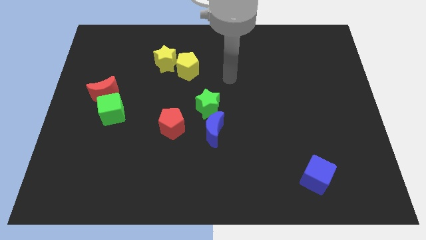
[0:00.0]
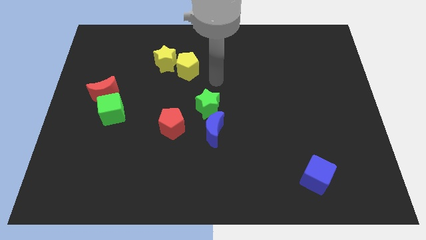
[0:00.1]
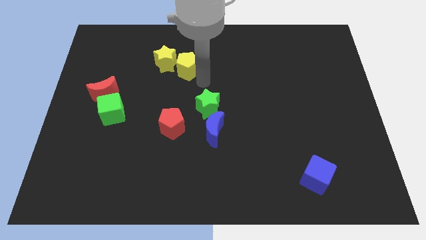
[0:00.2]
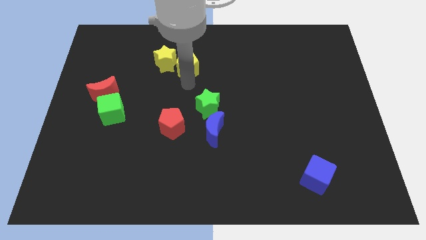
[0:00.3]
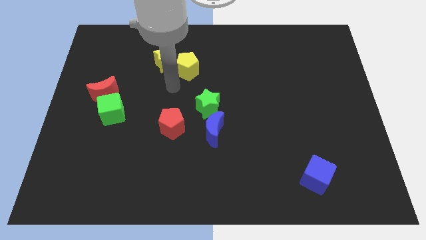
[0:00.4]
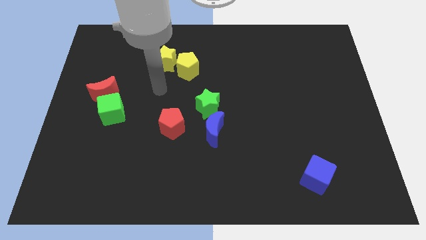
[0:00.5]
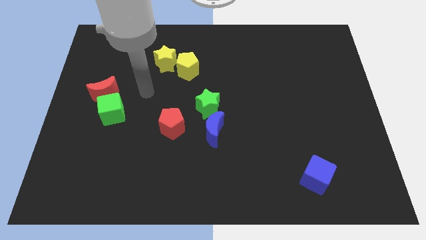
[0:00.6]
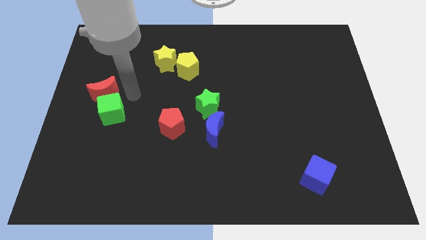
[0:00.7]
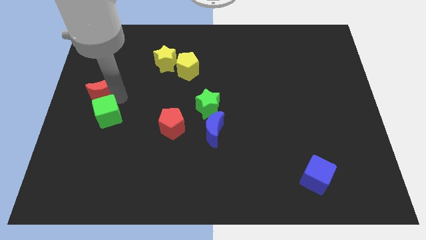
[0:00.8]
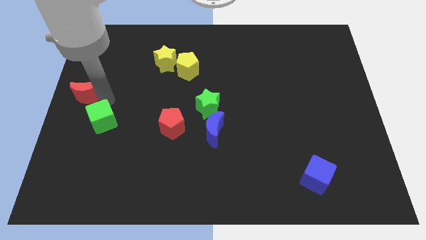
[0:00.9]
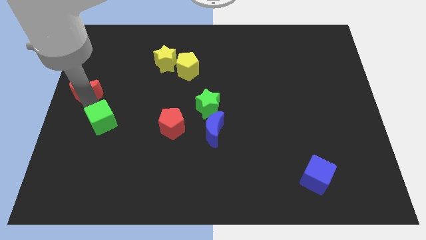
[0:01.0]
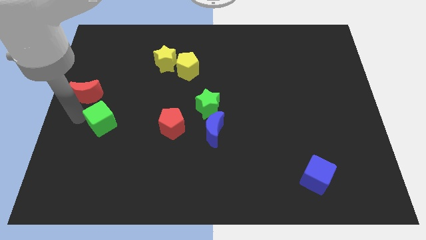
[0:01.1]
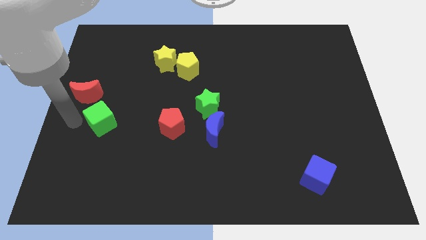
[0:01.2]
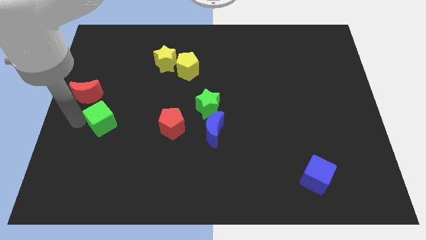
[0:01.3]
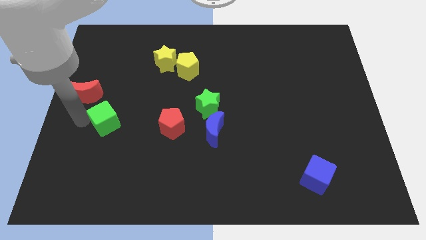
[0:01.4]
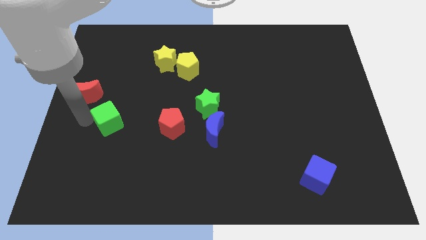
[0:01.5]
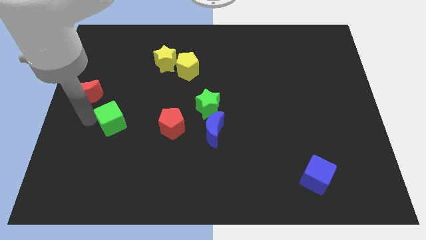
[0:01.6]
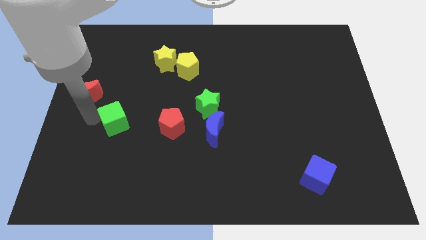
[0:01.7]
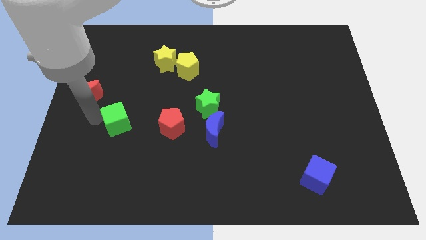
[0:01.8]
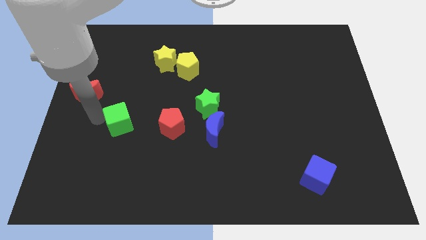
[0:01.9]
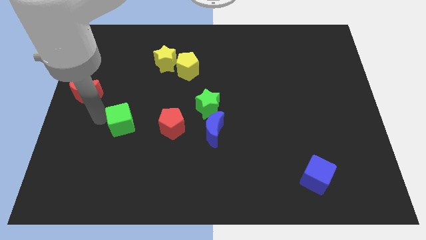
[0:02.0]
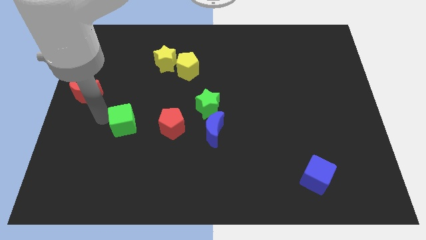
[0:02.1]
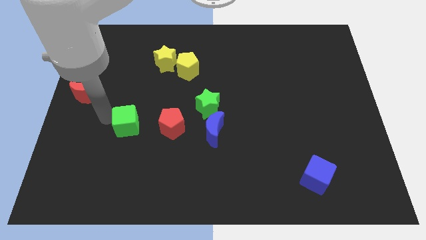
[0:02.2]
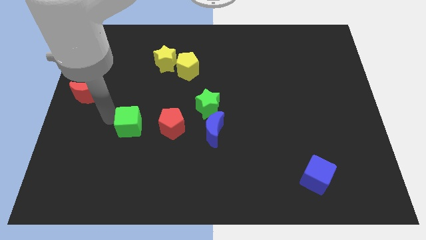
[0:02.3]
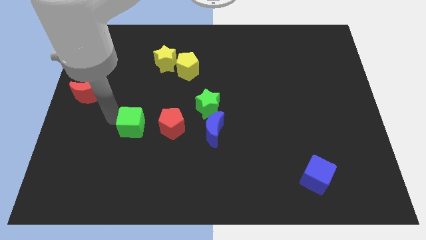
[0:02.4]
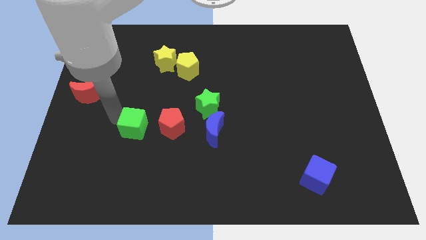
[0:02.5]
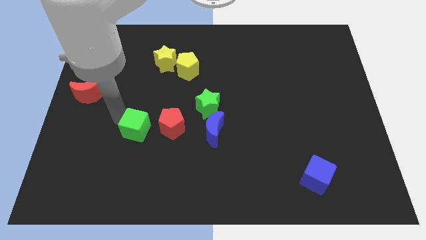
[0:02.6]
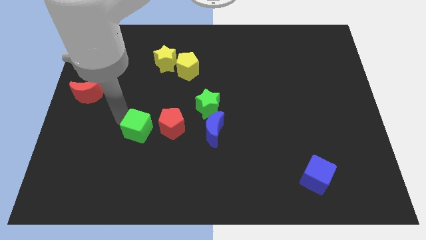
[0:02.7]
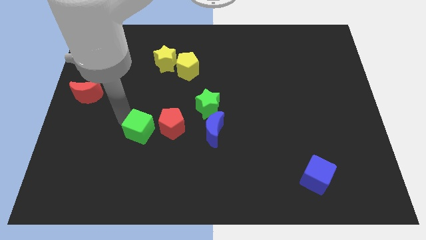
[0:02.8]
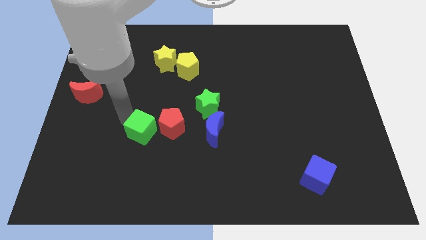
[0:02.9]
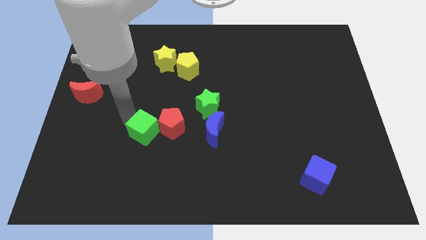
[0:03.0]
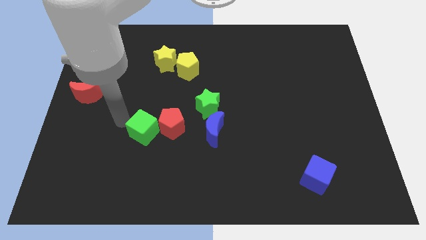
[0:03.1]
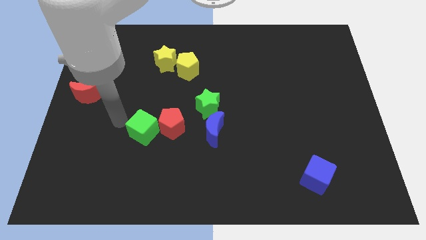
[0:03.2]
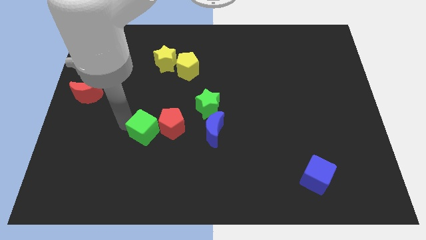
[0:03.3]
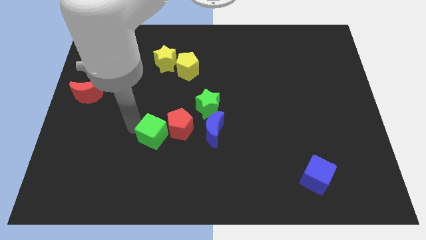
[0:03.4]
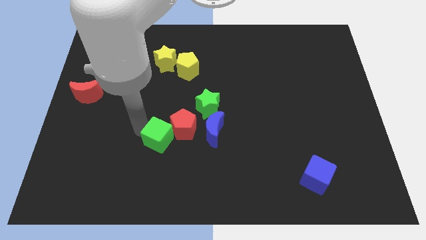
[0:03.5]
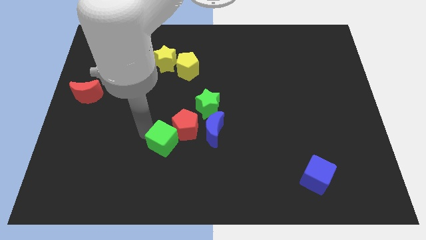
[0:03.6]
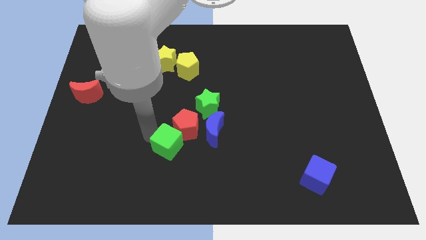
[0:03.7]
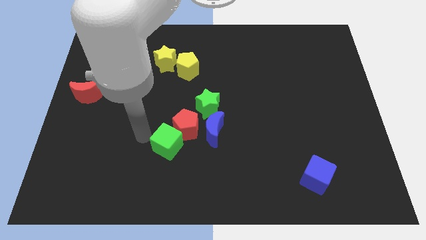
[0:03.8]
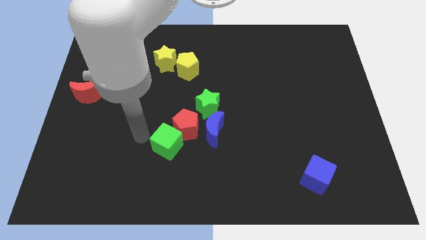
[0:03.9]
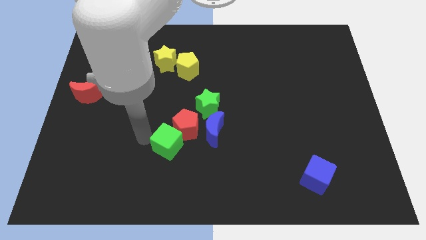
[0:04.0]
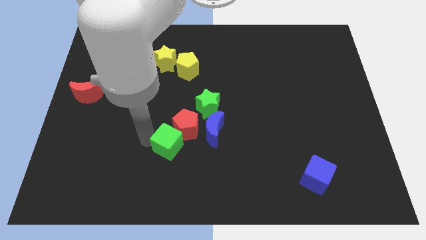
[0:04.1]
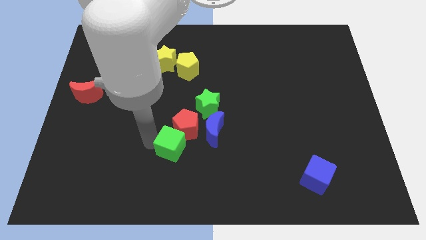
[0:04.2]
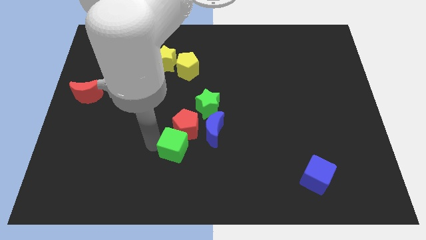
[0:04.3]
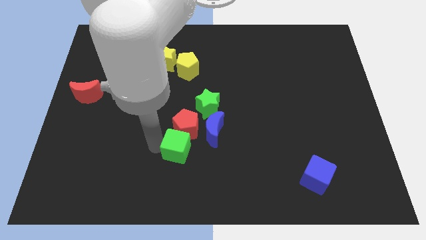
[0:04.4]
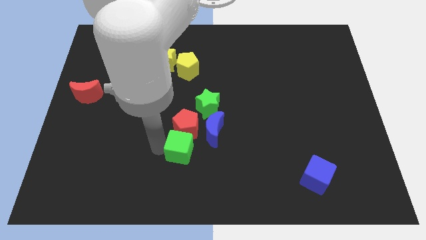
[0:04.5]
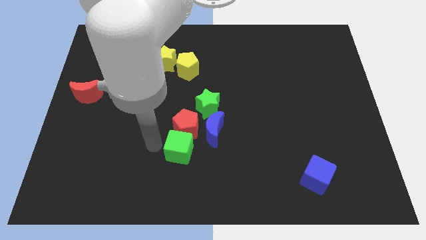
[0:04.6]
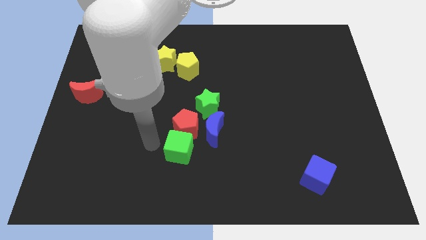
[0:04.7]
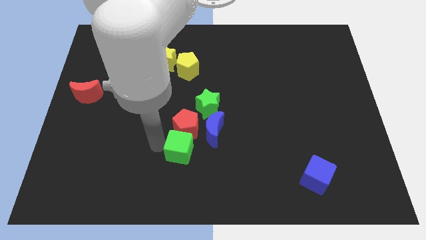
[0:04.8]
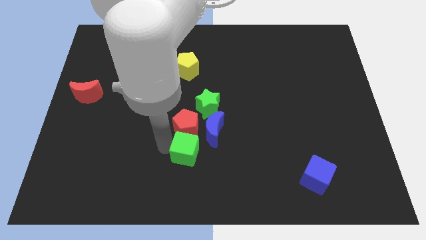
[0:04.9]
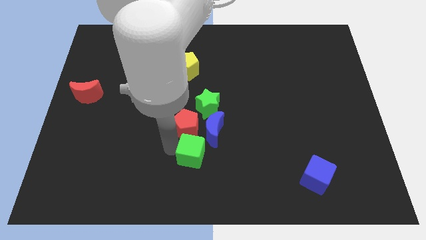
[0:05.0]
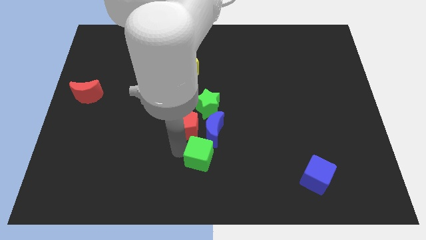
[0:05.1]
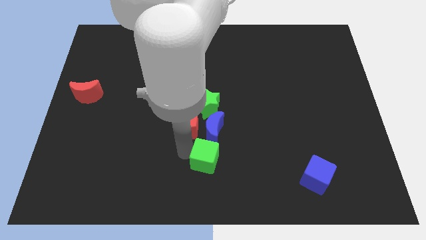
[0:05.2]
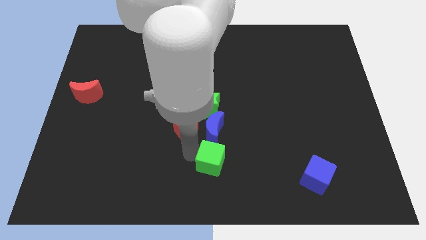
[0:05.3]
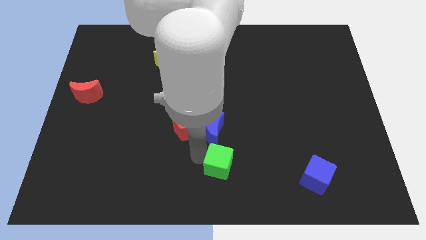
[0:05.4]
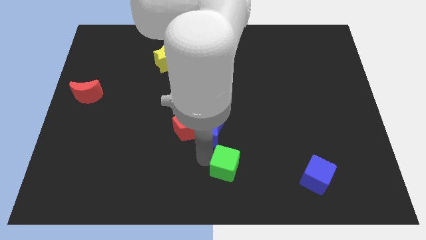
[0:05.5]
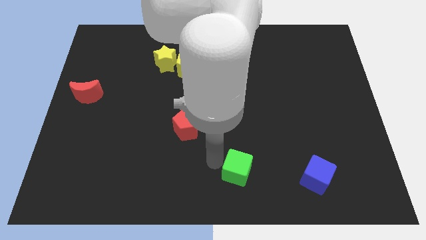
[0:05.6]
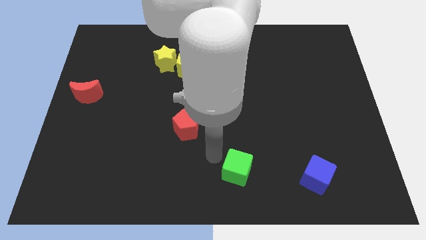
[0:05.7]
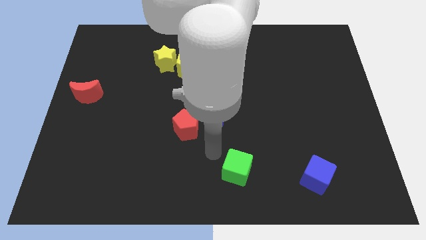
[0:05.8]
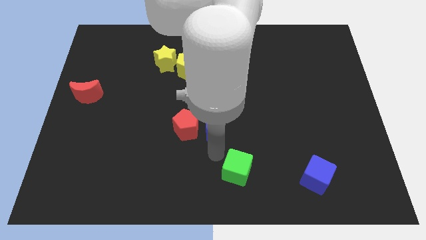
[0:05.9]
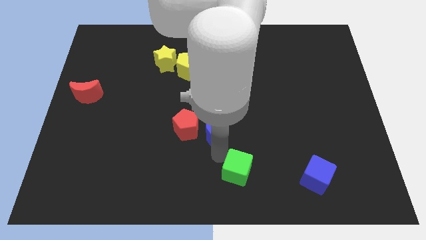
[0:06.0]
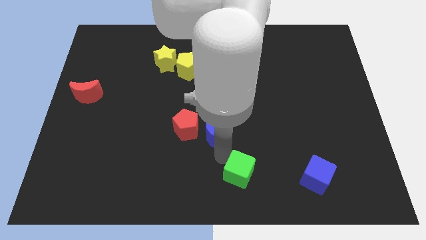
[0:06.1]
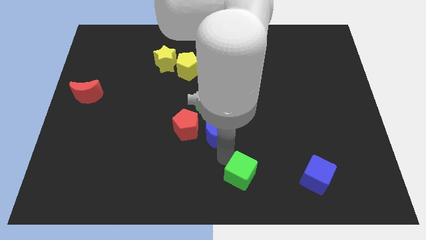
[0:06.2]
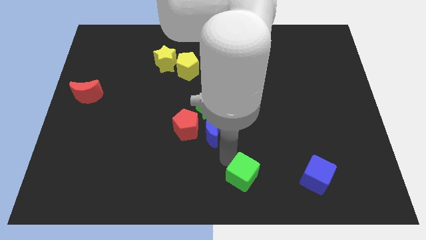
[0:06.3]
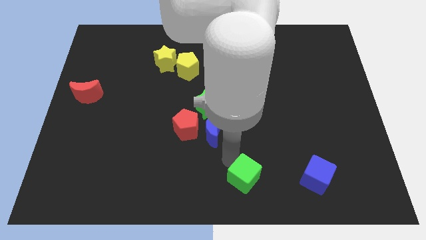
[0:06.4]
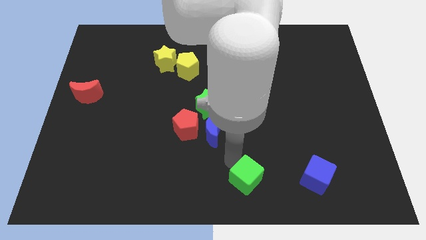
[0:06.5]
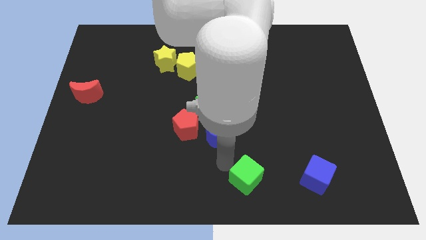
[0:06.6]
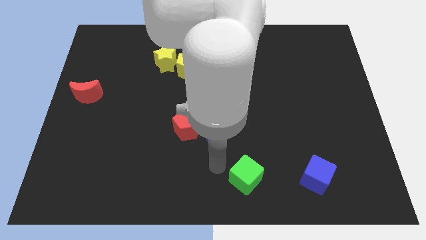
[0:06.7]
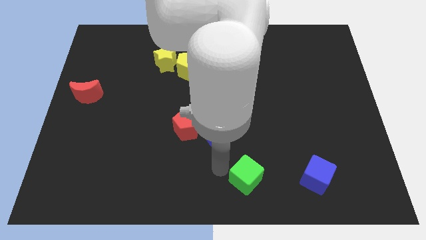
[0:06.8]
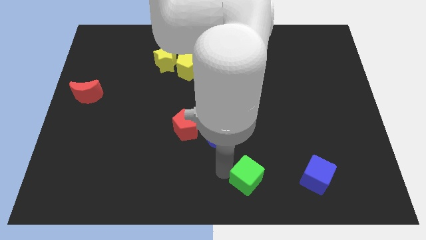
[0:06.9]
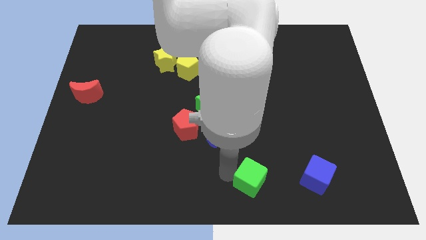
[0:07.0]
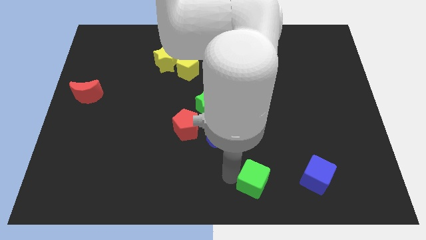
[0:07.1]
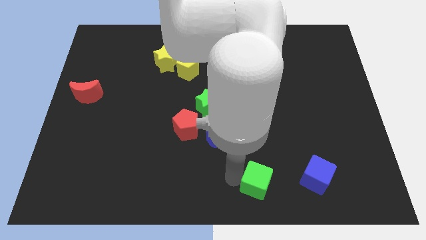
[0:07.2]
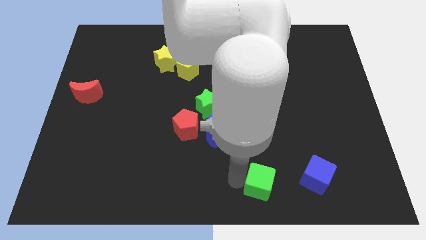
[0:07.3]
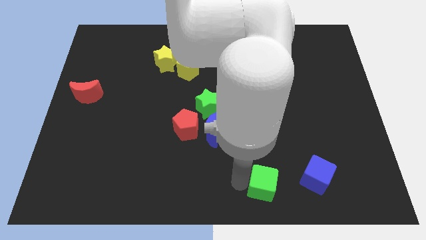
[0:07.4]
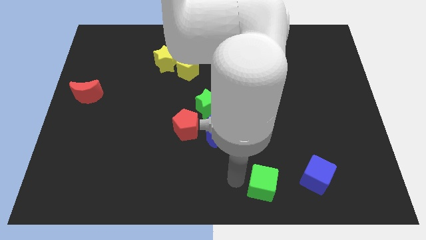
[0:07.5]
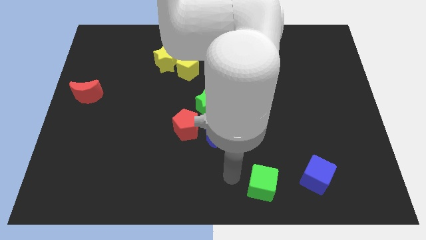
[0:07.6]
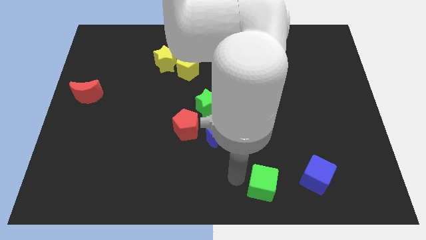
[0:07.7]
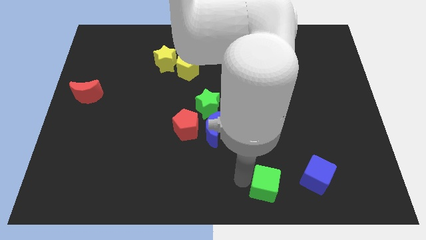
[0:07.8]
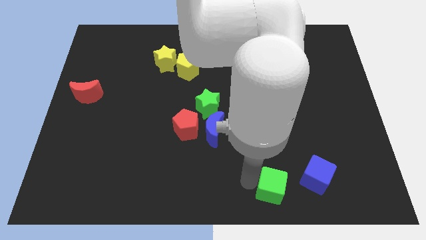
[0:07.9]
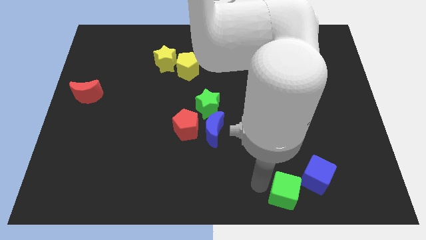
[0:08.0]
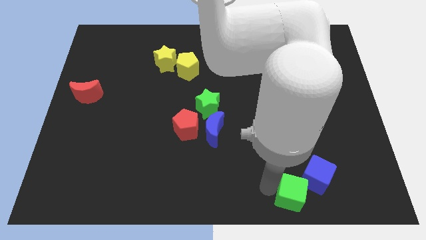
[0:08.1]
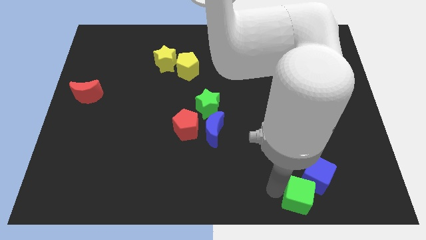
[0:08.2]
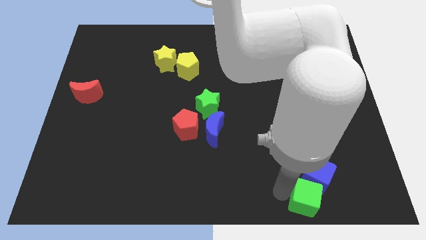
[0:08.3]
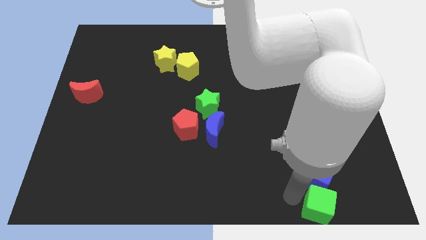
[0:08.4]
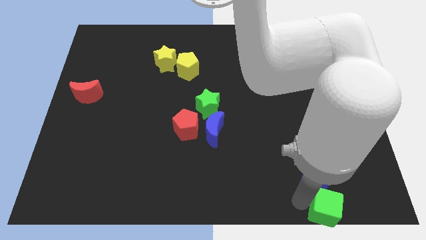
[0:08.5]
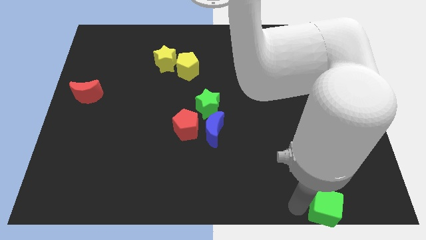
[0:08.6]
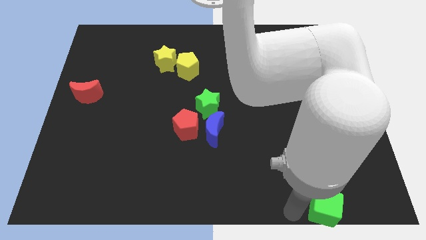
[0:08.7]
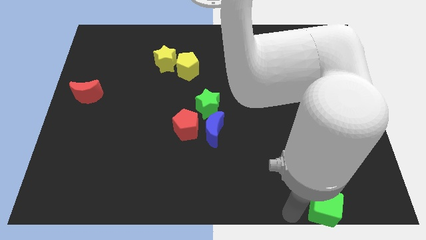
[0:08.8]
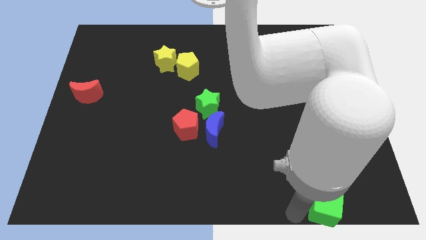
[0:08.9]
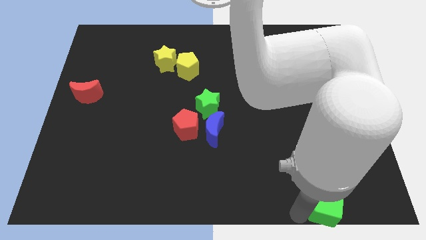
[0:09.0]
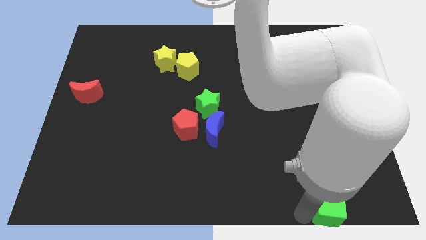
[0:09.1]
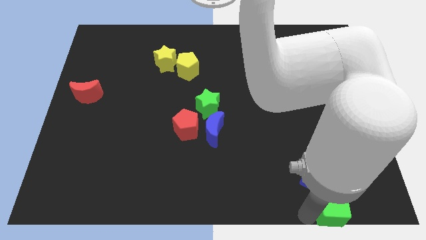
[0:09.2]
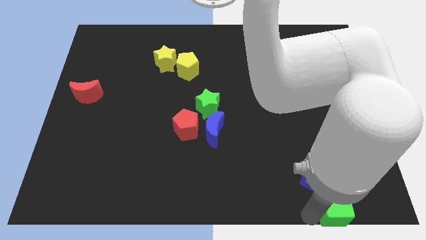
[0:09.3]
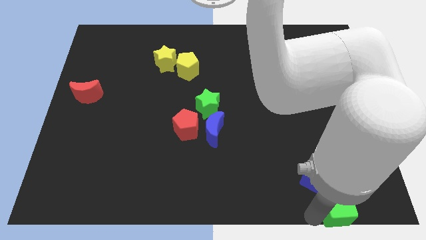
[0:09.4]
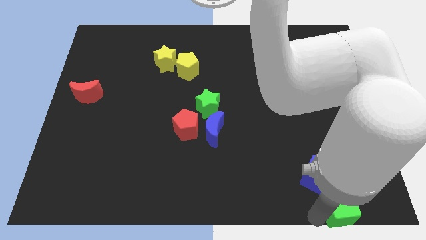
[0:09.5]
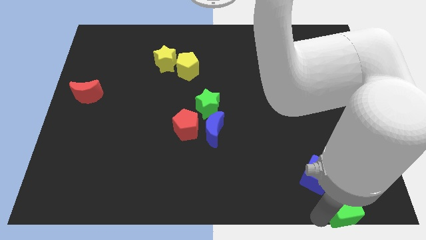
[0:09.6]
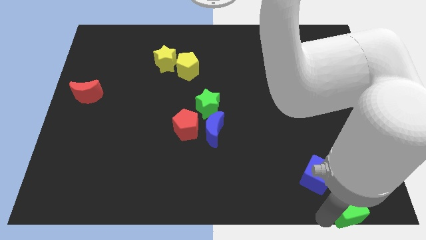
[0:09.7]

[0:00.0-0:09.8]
move the green cube to the lower right corner
